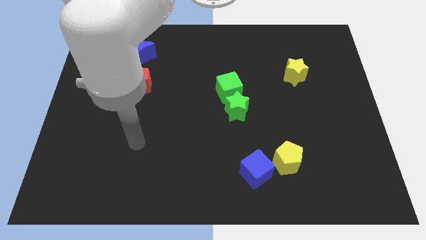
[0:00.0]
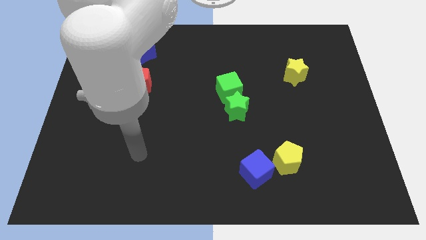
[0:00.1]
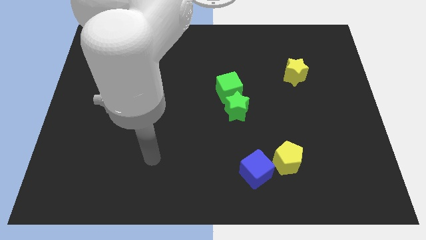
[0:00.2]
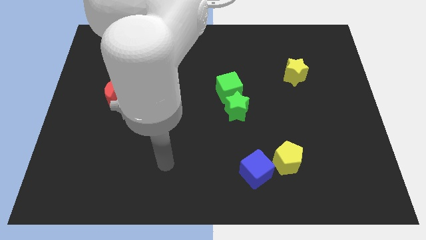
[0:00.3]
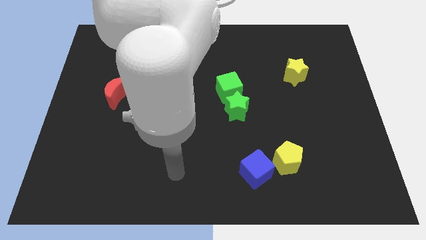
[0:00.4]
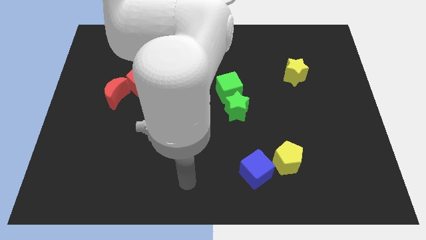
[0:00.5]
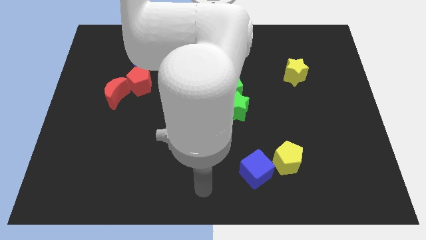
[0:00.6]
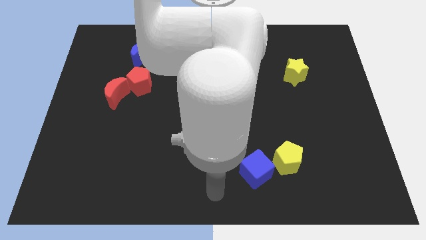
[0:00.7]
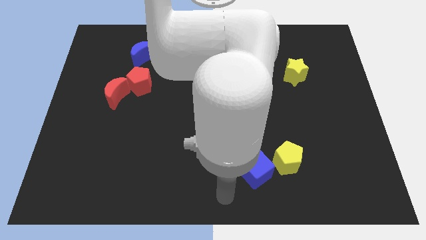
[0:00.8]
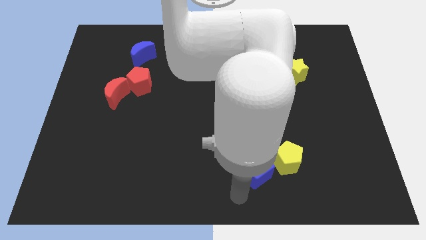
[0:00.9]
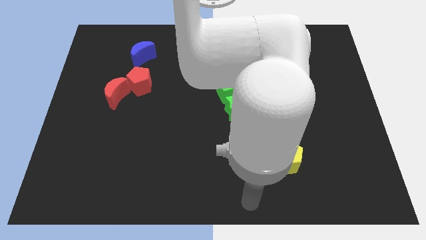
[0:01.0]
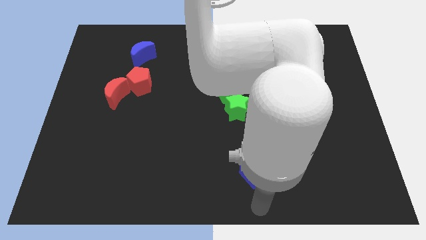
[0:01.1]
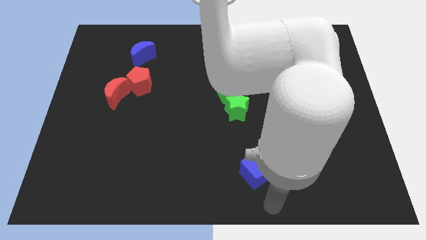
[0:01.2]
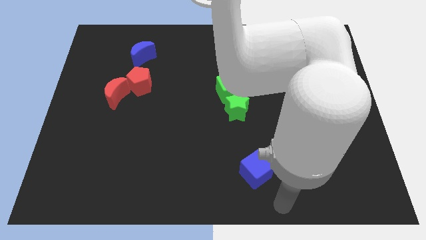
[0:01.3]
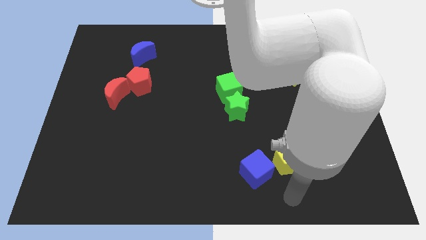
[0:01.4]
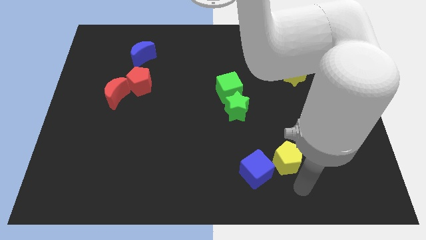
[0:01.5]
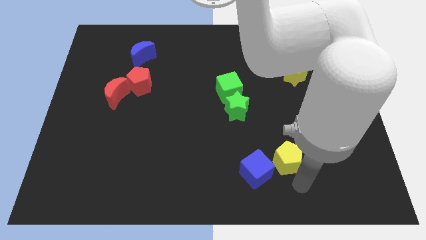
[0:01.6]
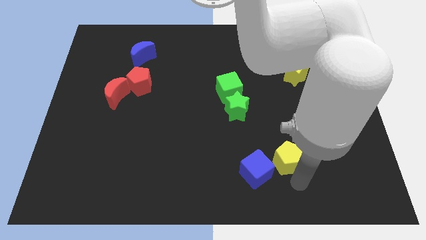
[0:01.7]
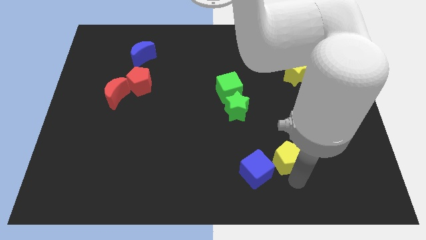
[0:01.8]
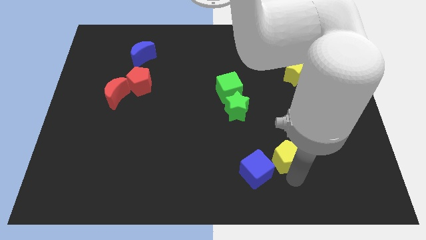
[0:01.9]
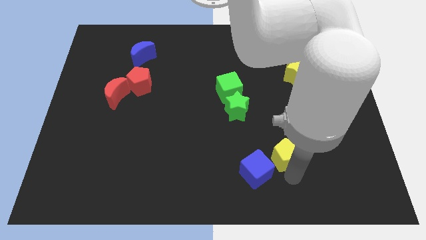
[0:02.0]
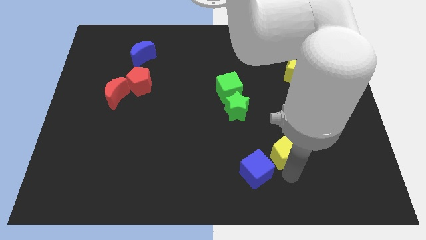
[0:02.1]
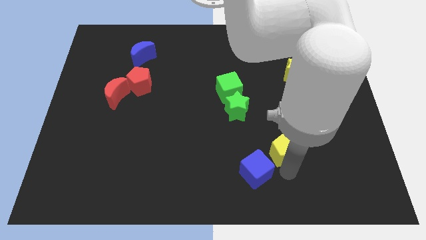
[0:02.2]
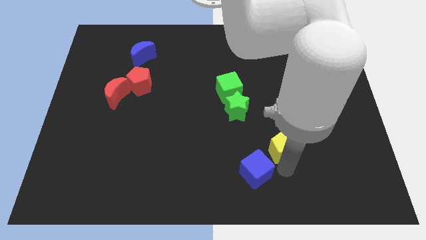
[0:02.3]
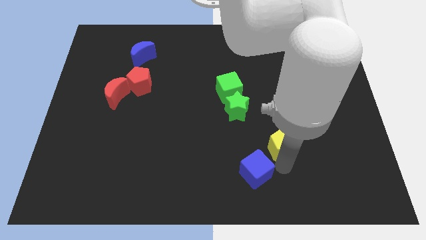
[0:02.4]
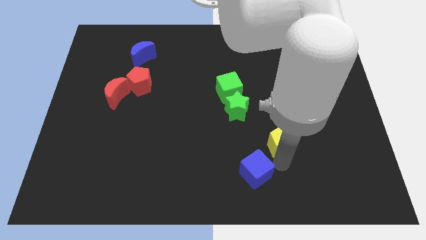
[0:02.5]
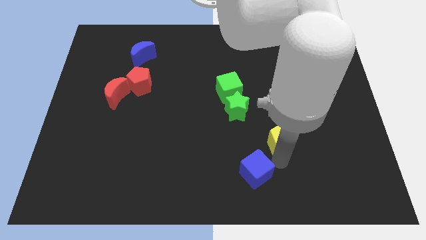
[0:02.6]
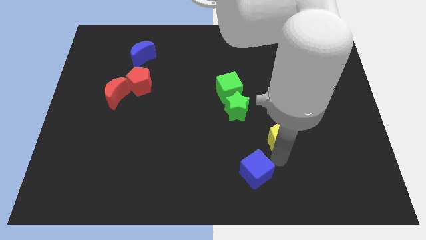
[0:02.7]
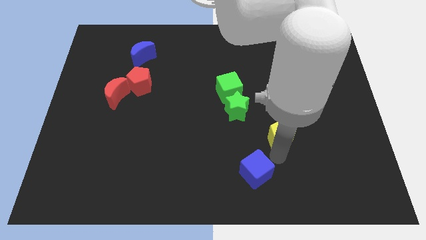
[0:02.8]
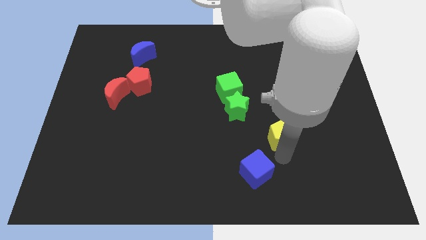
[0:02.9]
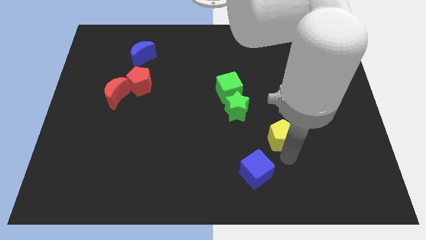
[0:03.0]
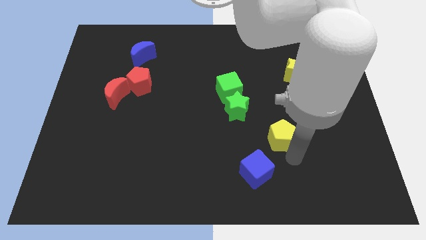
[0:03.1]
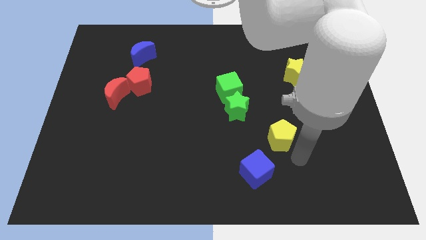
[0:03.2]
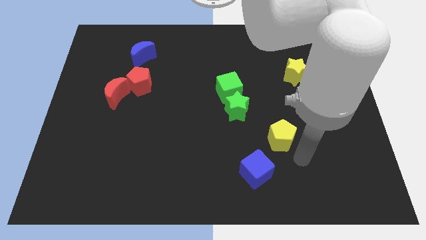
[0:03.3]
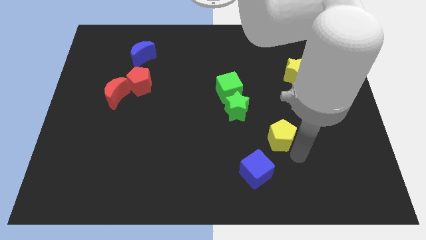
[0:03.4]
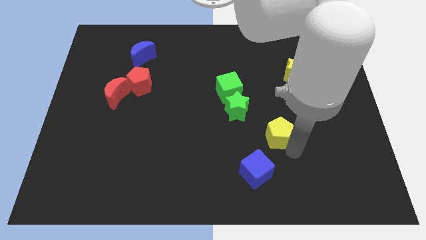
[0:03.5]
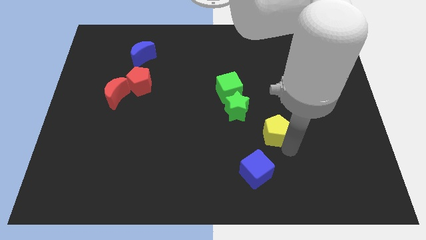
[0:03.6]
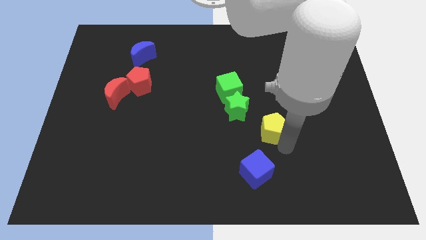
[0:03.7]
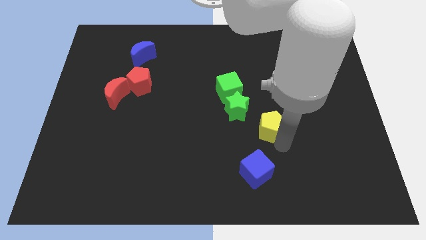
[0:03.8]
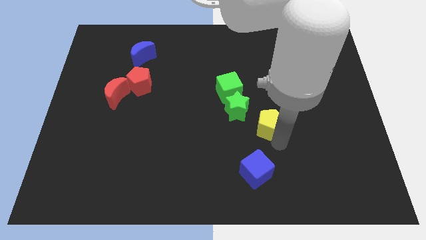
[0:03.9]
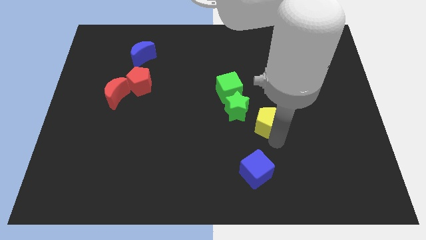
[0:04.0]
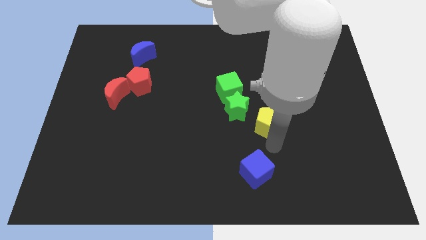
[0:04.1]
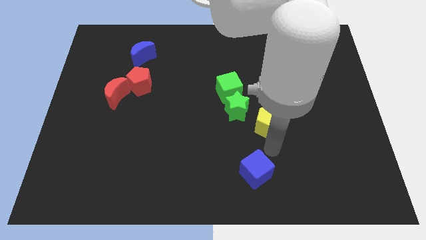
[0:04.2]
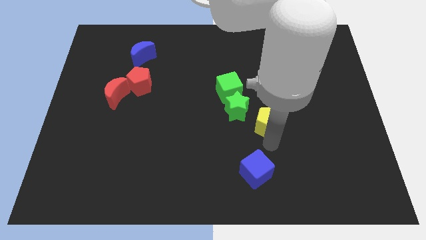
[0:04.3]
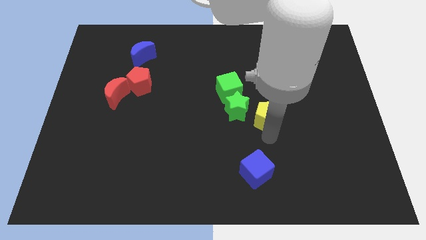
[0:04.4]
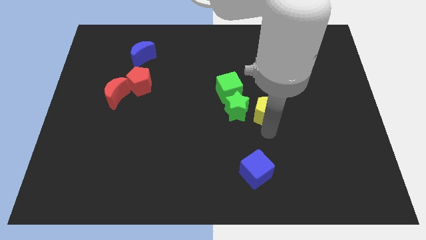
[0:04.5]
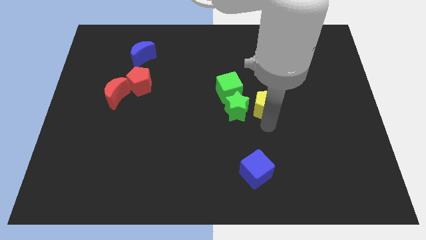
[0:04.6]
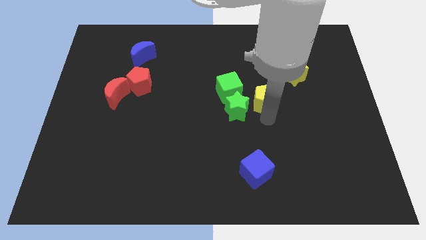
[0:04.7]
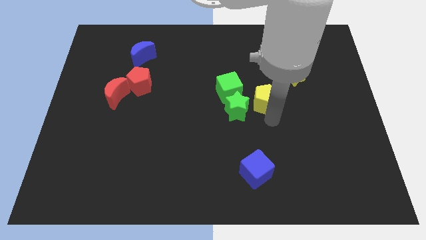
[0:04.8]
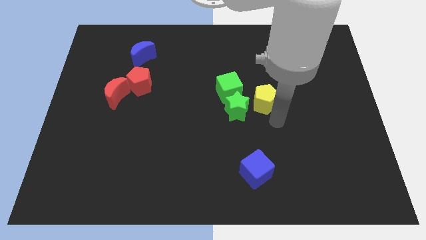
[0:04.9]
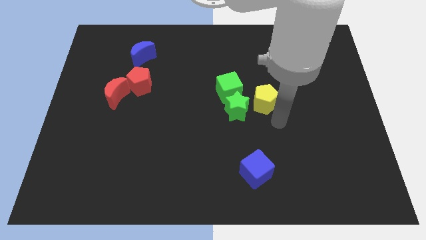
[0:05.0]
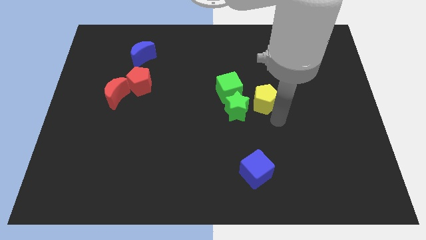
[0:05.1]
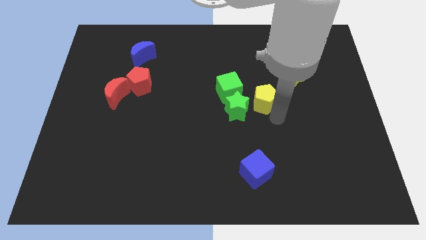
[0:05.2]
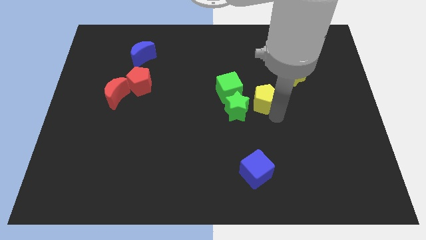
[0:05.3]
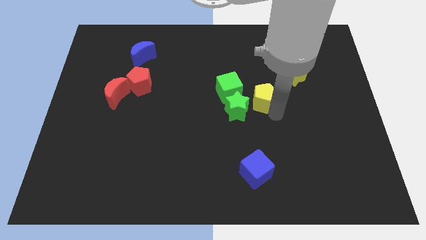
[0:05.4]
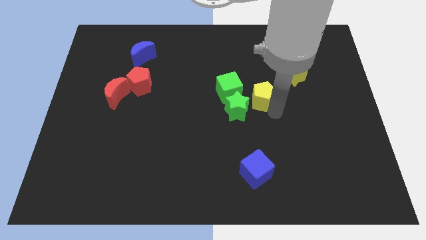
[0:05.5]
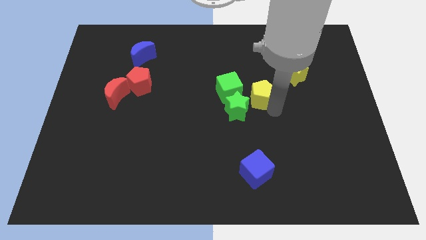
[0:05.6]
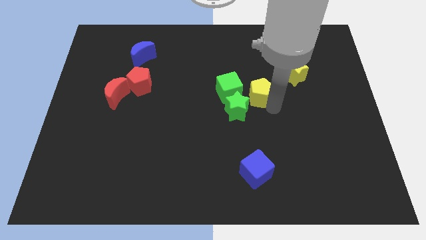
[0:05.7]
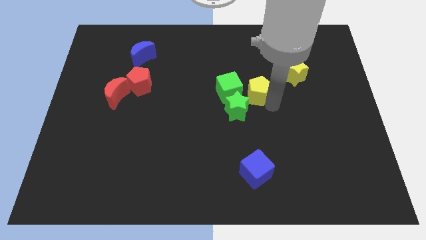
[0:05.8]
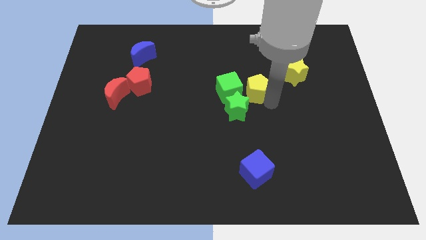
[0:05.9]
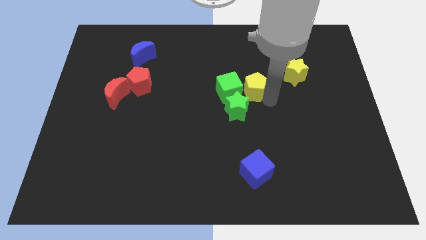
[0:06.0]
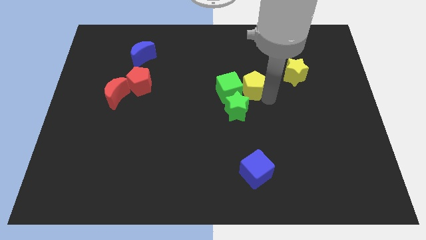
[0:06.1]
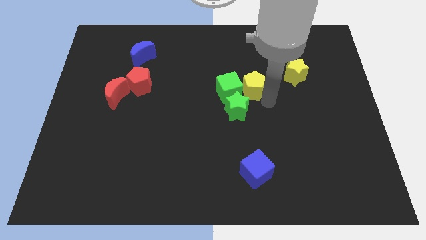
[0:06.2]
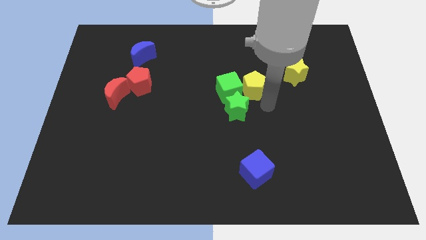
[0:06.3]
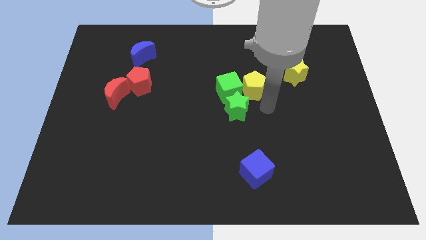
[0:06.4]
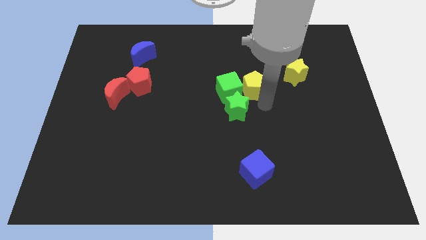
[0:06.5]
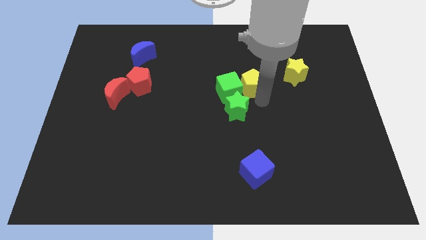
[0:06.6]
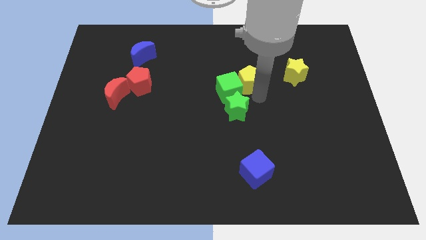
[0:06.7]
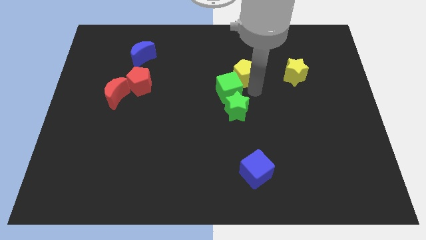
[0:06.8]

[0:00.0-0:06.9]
push the yellow pentagon to the top of the green cube

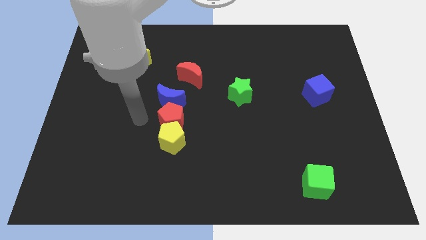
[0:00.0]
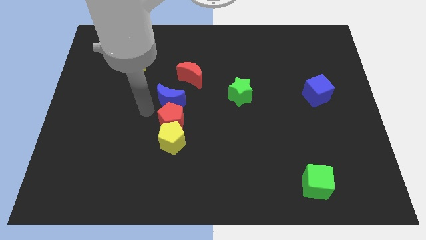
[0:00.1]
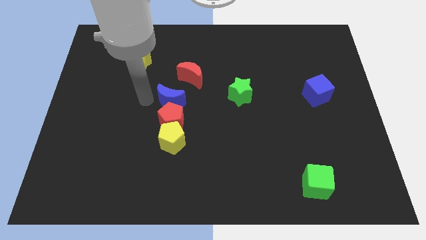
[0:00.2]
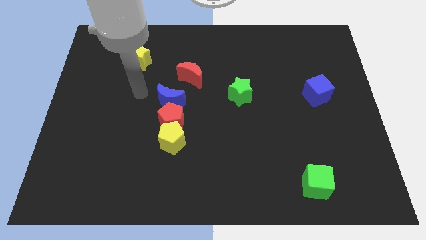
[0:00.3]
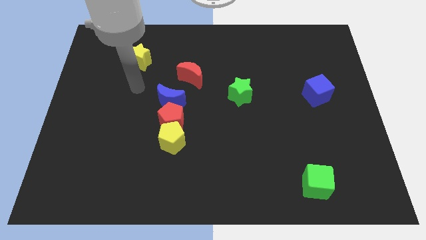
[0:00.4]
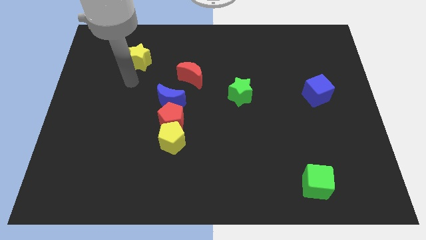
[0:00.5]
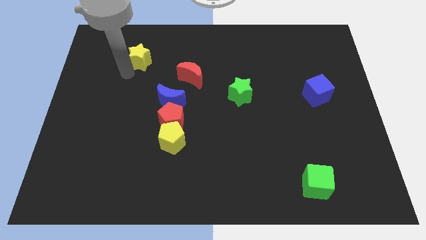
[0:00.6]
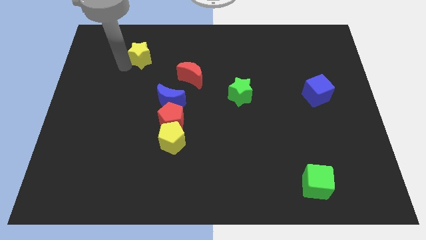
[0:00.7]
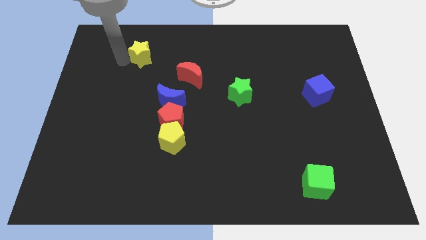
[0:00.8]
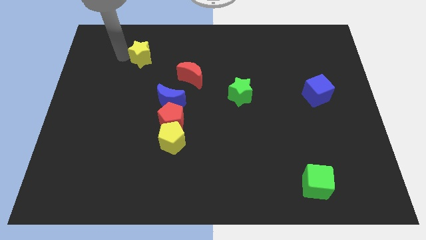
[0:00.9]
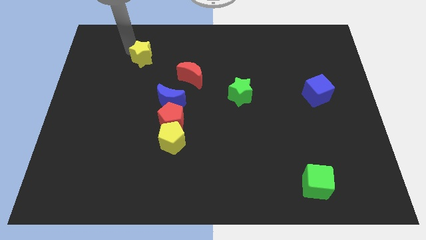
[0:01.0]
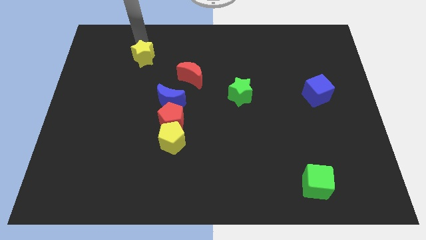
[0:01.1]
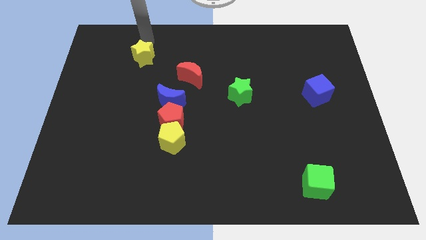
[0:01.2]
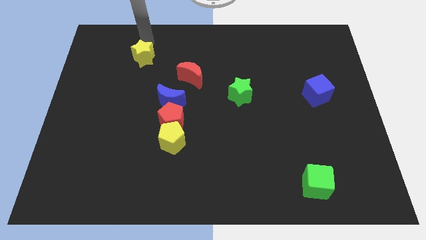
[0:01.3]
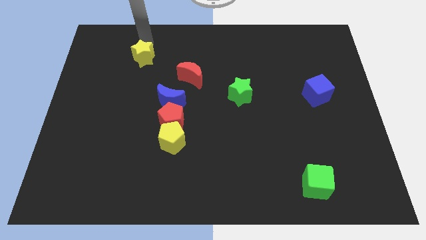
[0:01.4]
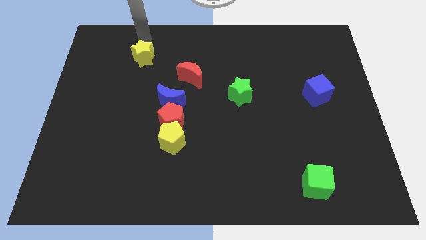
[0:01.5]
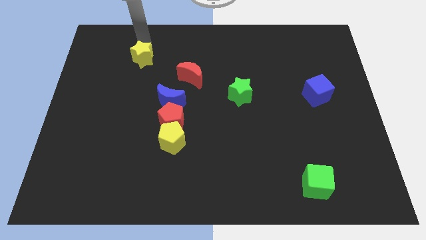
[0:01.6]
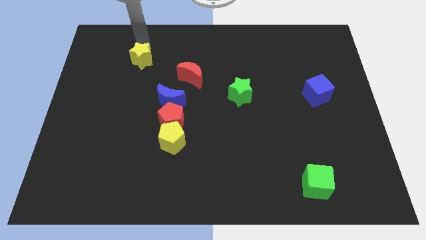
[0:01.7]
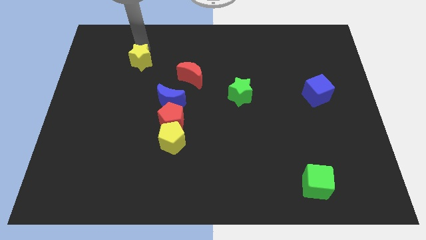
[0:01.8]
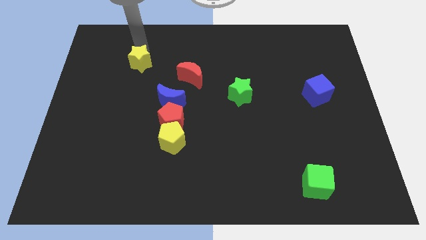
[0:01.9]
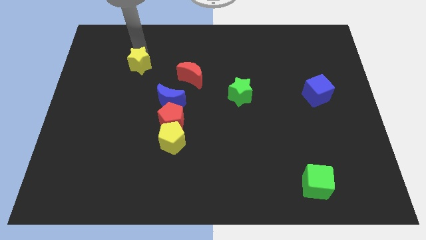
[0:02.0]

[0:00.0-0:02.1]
push the yellow star left of the red moon
